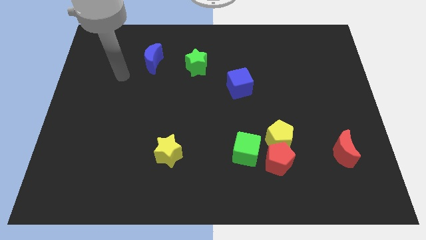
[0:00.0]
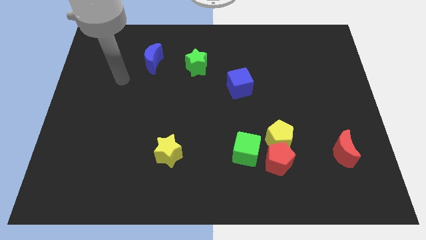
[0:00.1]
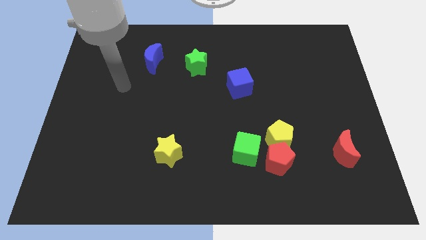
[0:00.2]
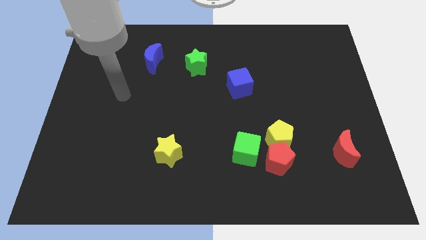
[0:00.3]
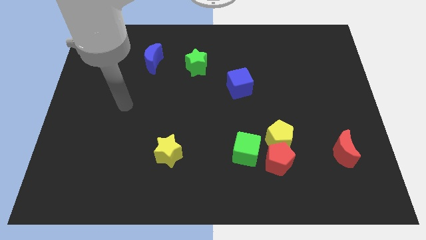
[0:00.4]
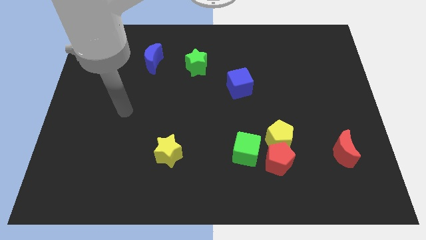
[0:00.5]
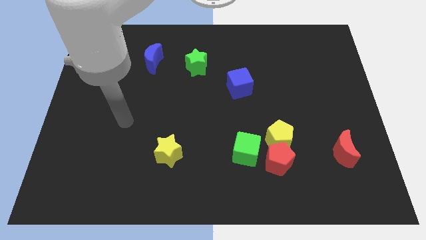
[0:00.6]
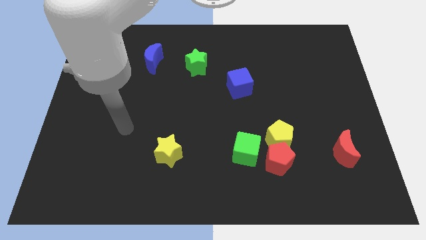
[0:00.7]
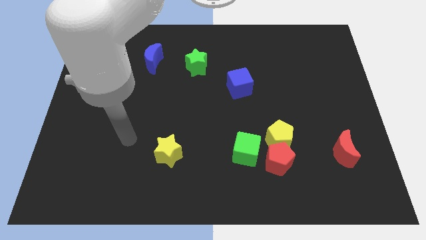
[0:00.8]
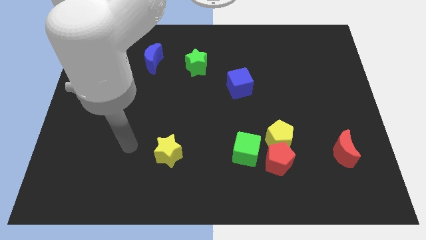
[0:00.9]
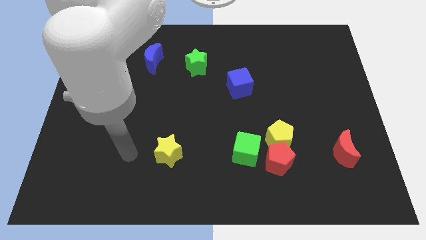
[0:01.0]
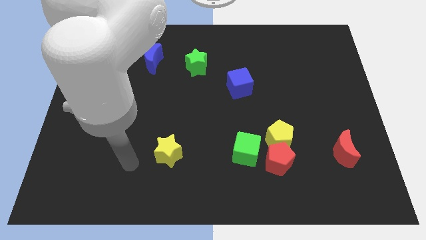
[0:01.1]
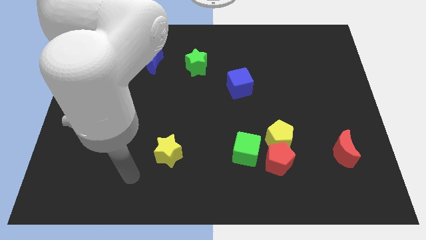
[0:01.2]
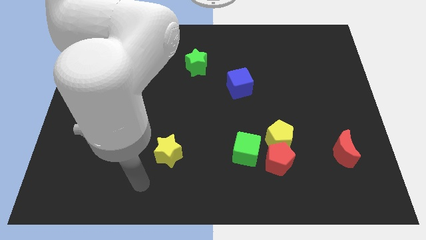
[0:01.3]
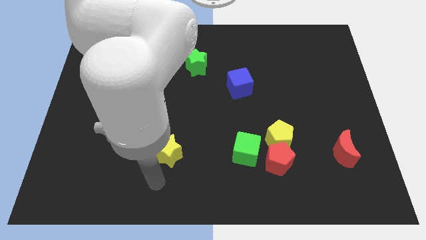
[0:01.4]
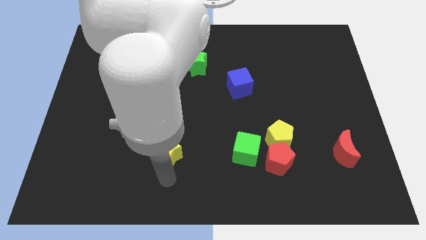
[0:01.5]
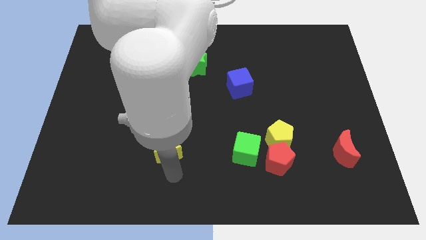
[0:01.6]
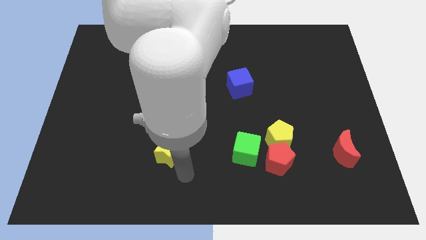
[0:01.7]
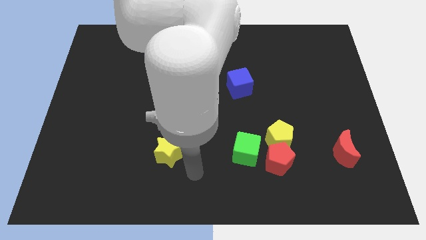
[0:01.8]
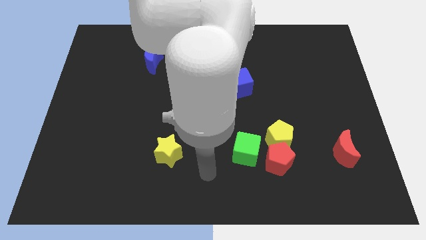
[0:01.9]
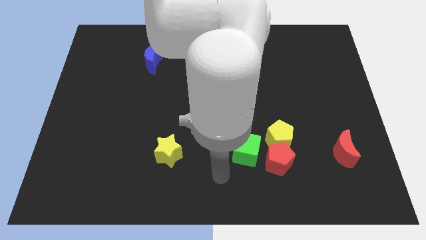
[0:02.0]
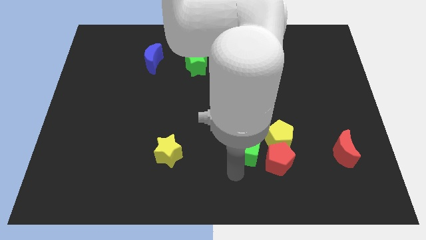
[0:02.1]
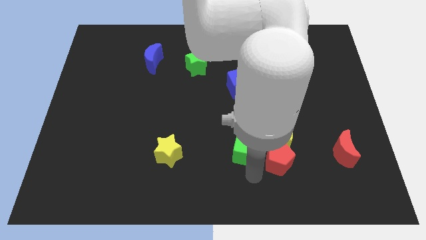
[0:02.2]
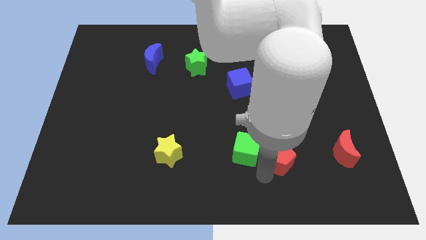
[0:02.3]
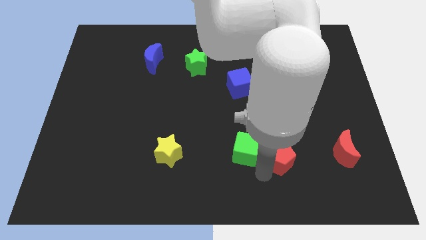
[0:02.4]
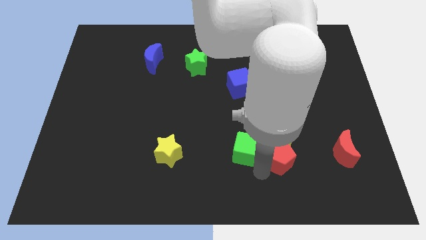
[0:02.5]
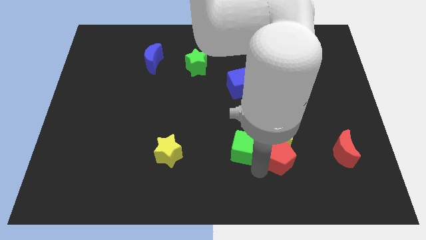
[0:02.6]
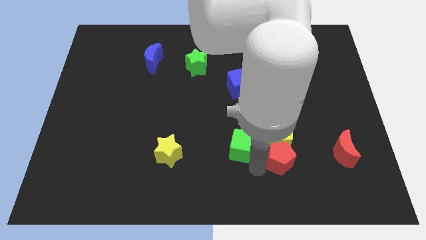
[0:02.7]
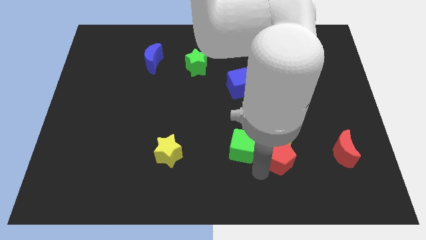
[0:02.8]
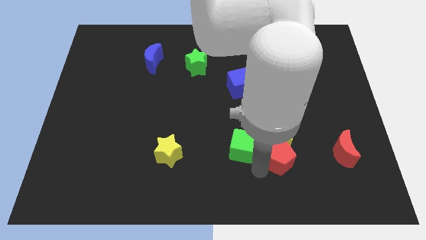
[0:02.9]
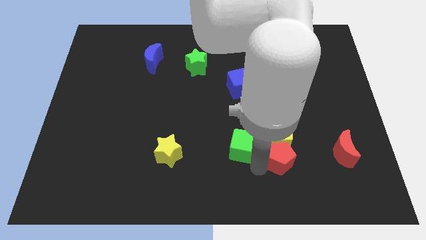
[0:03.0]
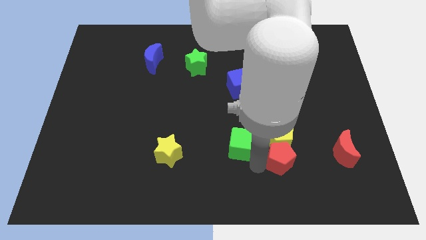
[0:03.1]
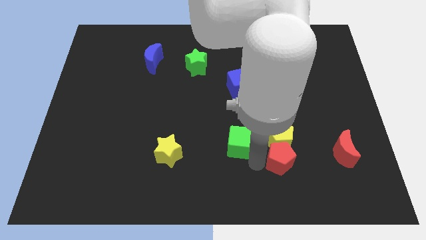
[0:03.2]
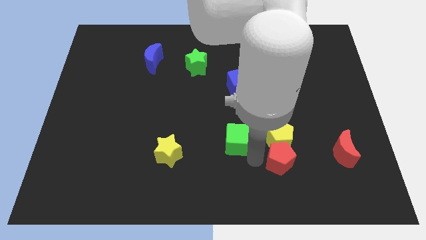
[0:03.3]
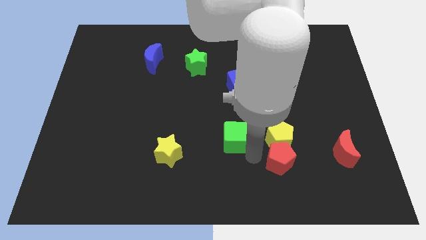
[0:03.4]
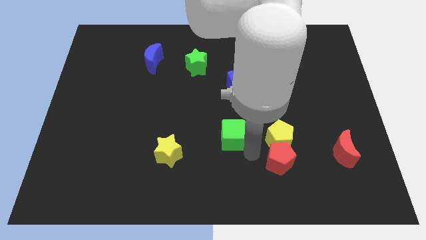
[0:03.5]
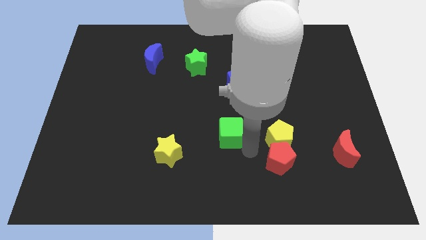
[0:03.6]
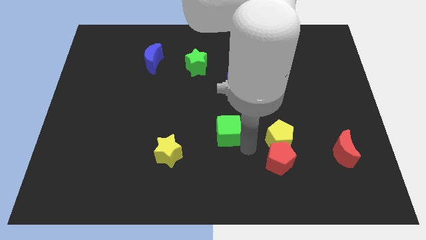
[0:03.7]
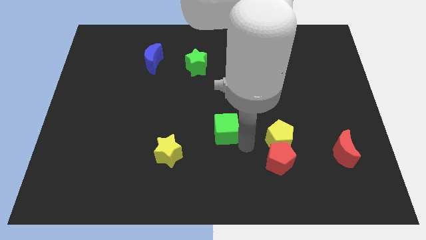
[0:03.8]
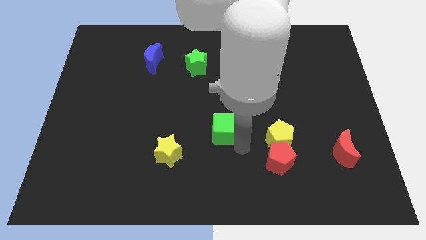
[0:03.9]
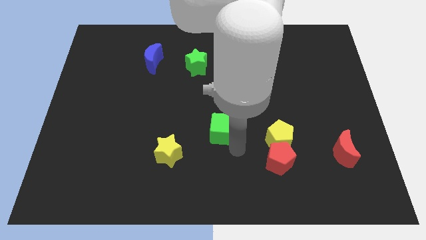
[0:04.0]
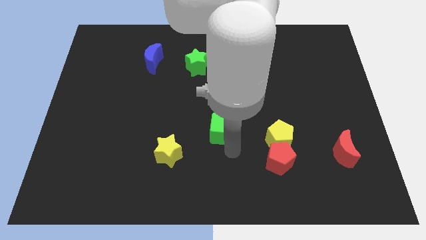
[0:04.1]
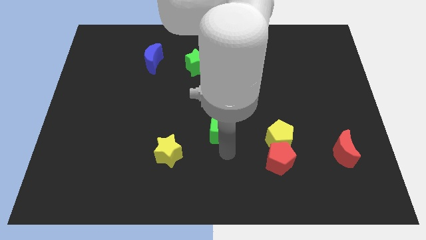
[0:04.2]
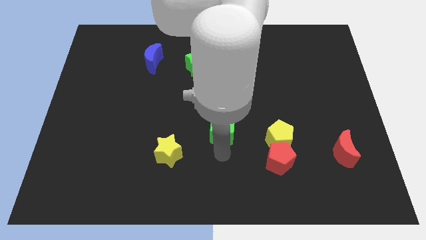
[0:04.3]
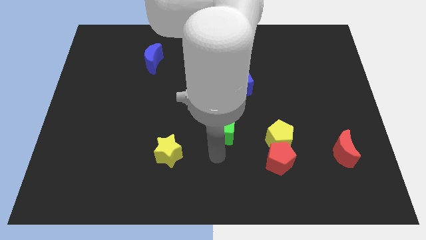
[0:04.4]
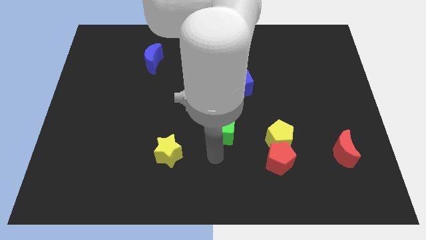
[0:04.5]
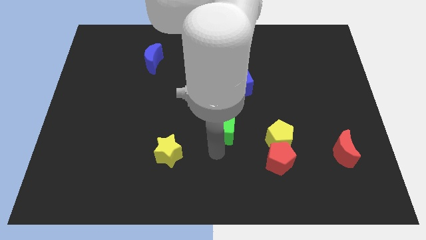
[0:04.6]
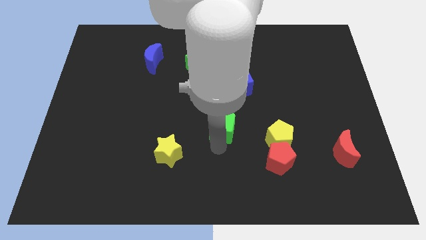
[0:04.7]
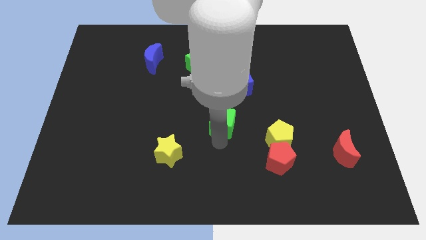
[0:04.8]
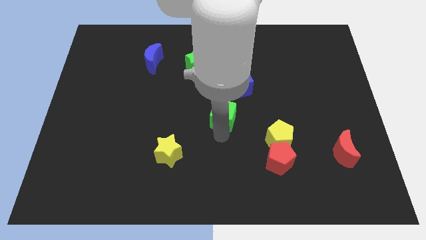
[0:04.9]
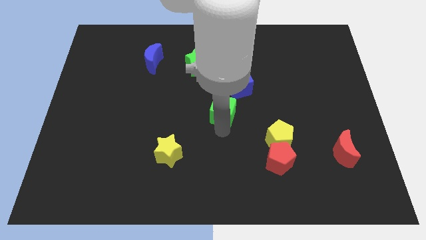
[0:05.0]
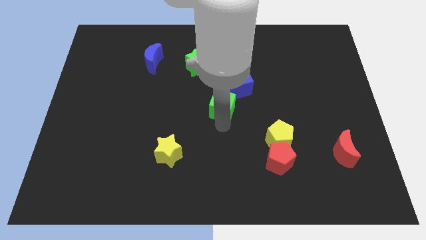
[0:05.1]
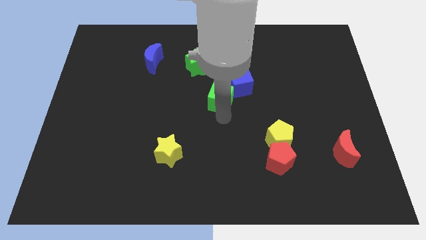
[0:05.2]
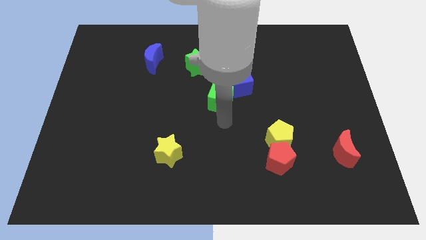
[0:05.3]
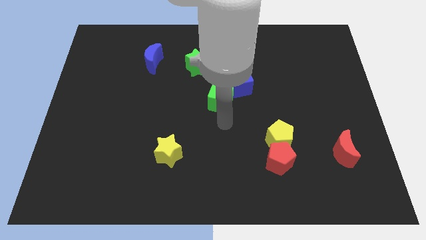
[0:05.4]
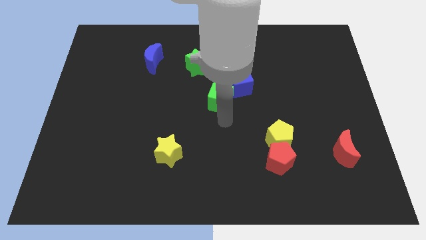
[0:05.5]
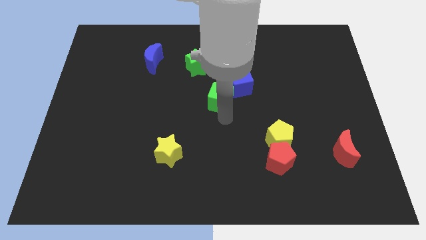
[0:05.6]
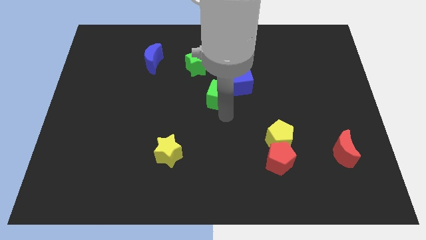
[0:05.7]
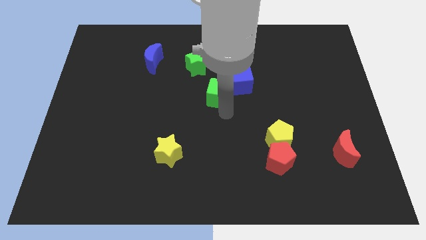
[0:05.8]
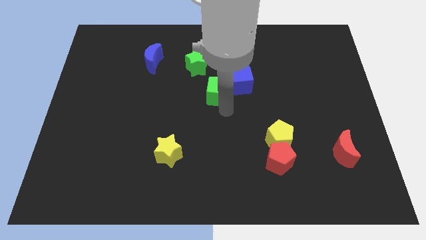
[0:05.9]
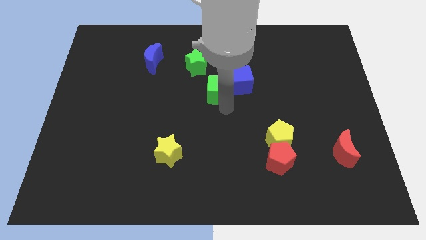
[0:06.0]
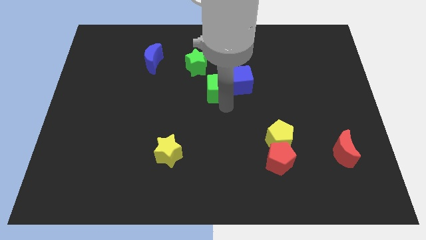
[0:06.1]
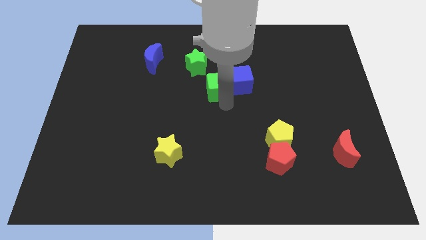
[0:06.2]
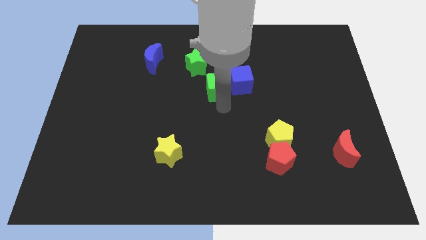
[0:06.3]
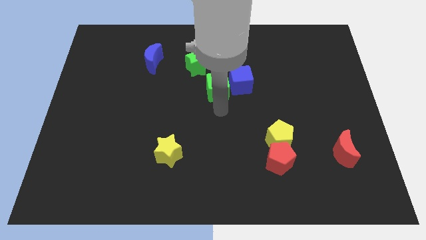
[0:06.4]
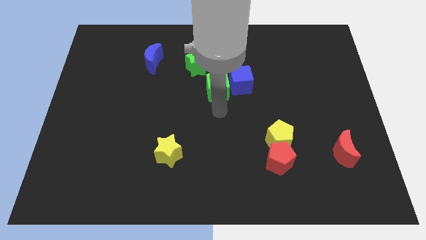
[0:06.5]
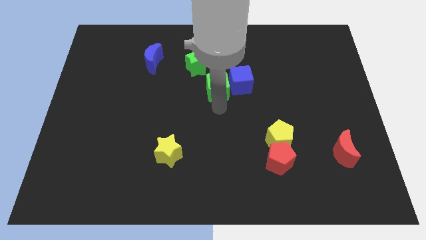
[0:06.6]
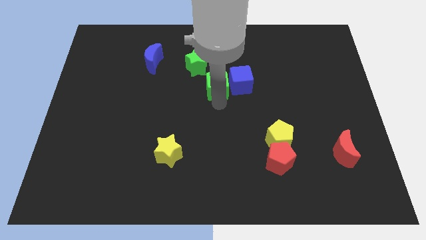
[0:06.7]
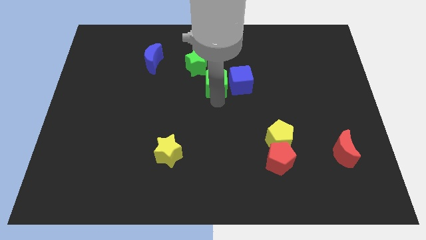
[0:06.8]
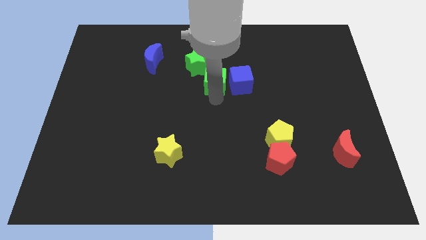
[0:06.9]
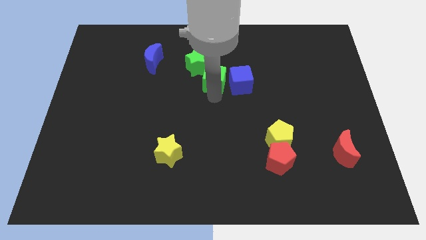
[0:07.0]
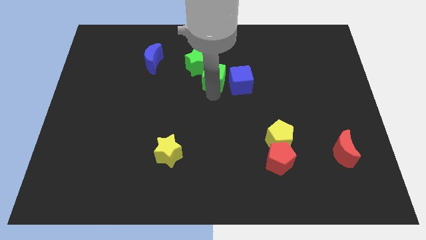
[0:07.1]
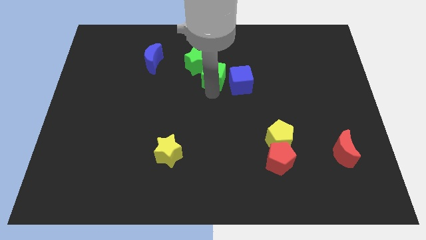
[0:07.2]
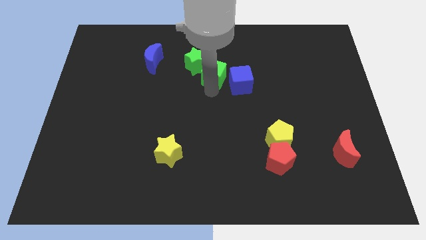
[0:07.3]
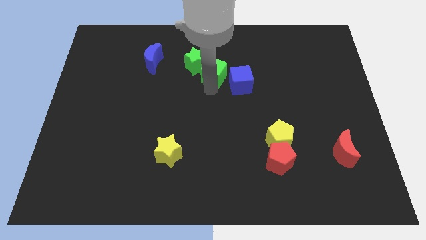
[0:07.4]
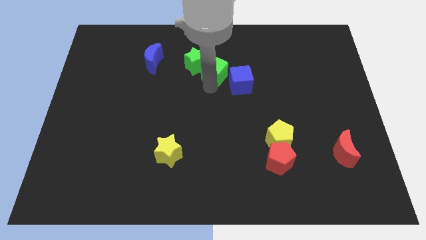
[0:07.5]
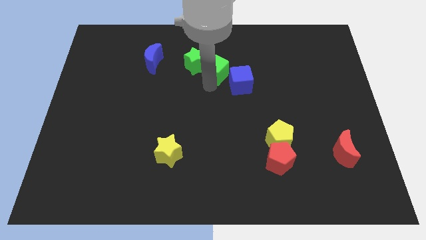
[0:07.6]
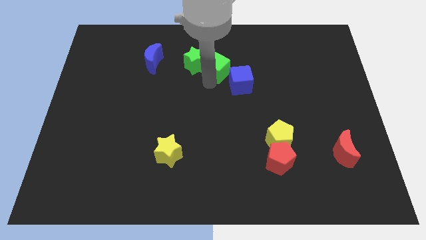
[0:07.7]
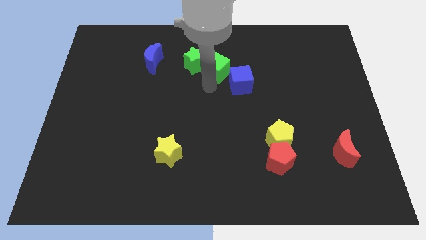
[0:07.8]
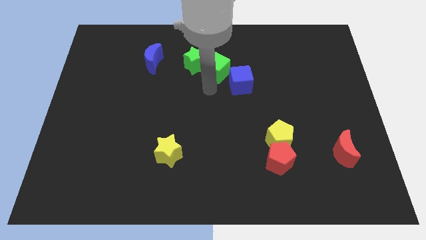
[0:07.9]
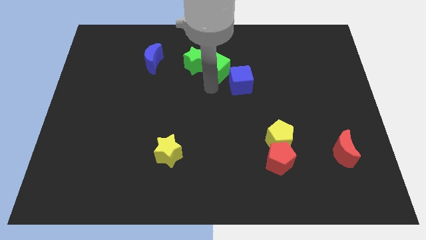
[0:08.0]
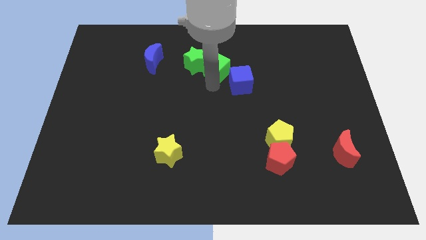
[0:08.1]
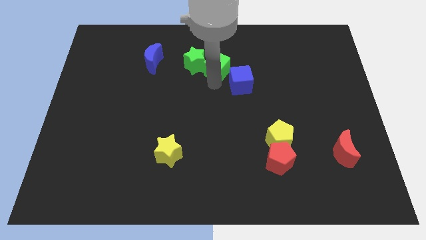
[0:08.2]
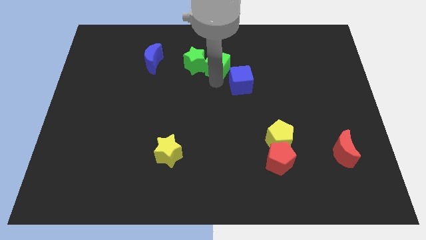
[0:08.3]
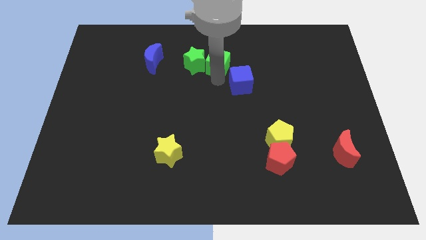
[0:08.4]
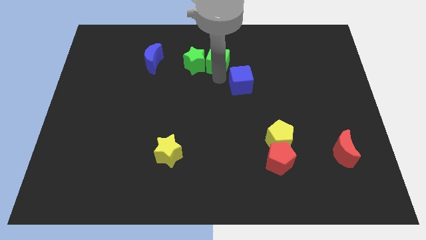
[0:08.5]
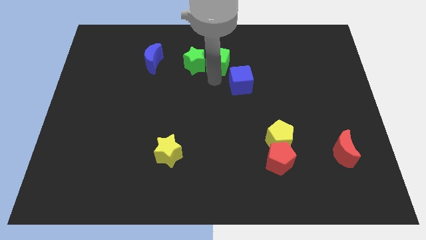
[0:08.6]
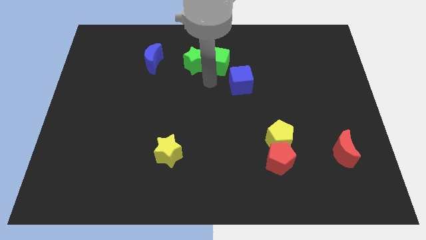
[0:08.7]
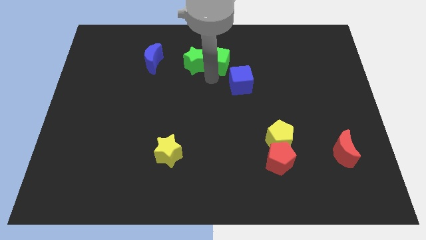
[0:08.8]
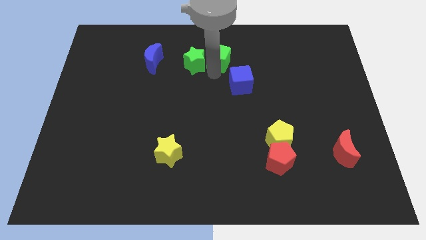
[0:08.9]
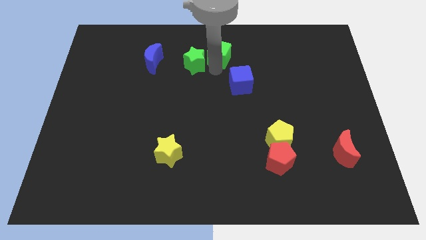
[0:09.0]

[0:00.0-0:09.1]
move the green cube to the towards your base
